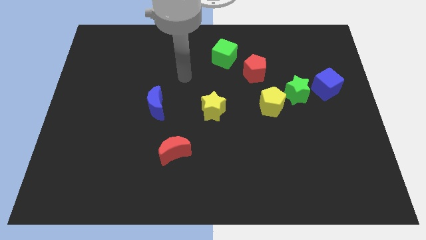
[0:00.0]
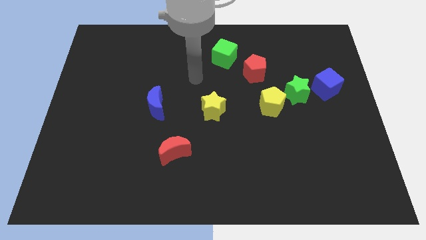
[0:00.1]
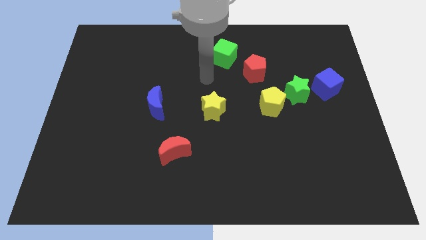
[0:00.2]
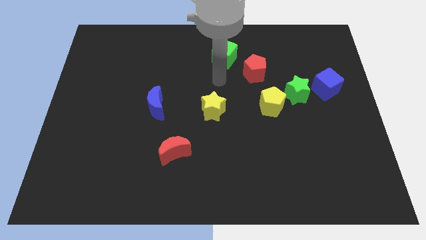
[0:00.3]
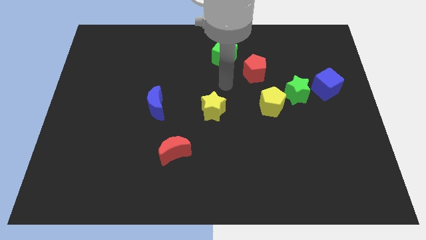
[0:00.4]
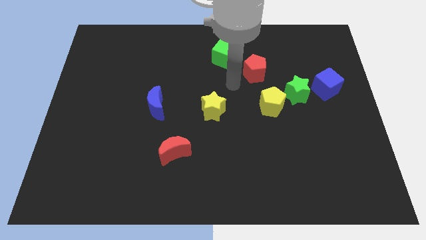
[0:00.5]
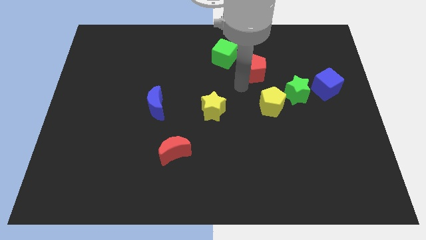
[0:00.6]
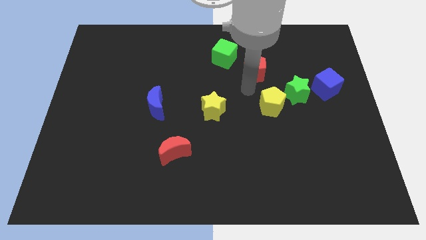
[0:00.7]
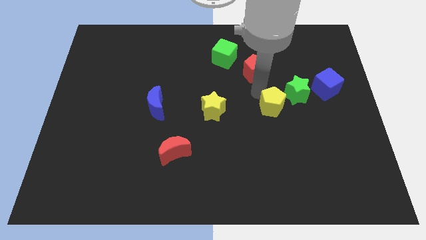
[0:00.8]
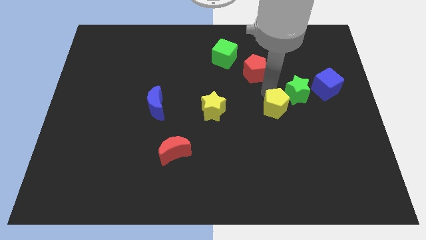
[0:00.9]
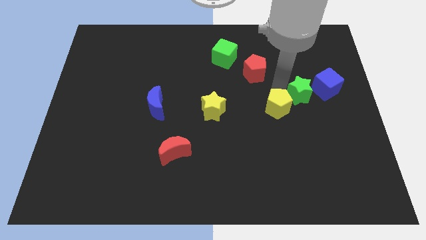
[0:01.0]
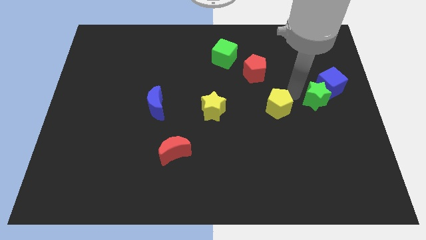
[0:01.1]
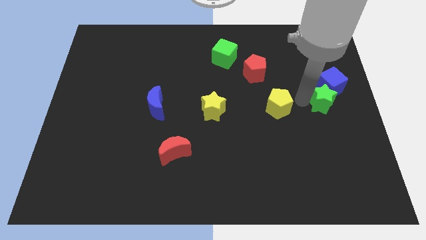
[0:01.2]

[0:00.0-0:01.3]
separate the yellow pentagon from the green star

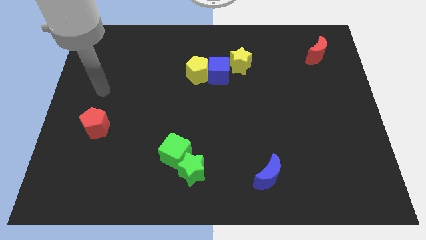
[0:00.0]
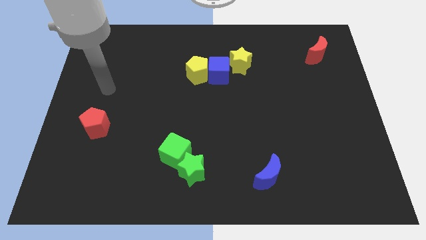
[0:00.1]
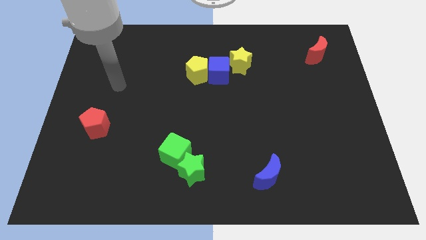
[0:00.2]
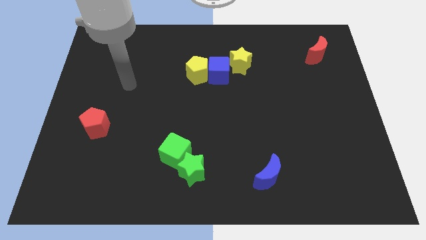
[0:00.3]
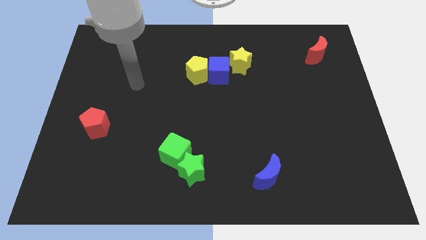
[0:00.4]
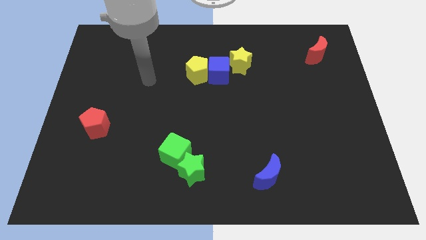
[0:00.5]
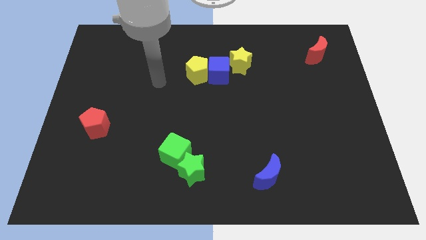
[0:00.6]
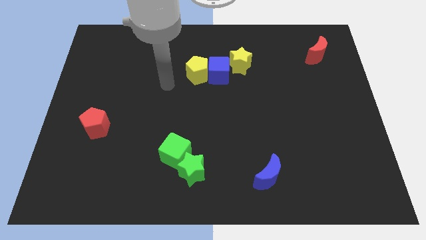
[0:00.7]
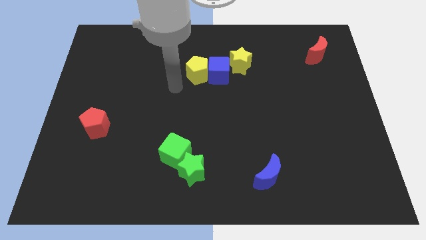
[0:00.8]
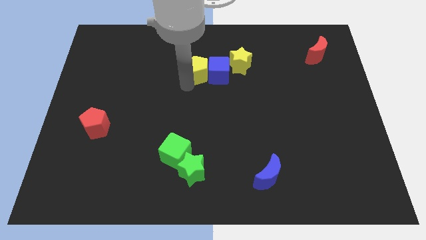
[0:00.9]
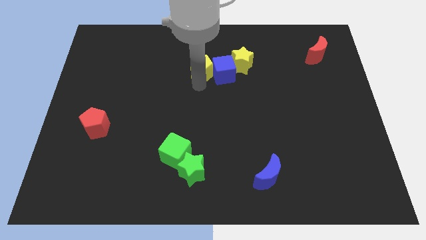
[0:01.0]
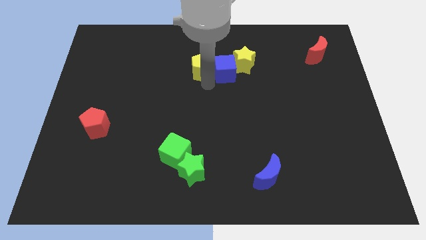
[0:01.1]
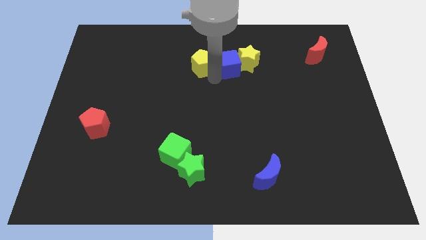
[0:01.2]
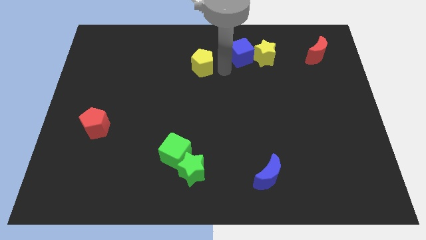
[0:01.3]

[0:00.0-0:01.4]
move the yellow pentagon away from the blue cube

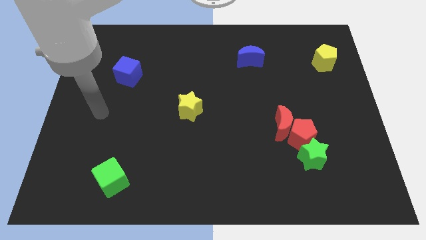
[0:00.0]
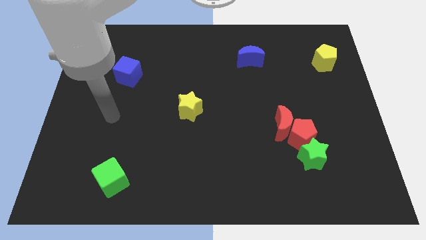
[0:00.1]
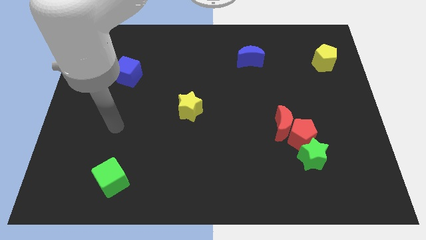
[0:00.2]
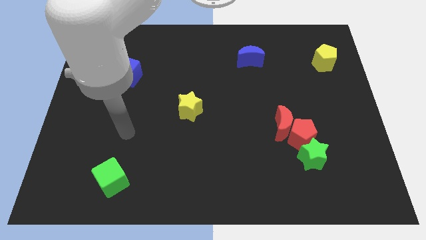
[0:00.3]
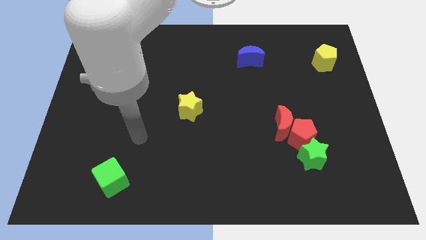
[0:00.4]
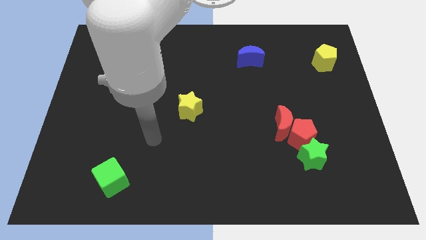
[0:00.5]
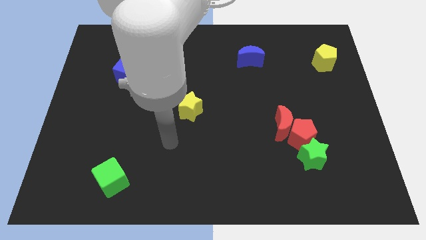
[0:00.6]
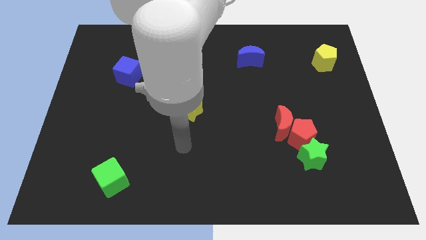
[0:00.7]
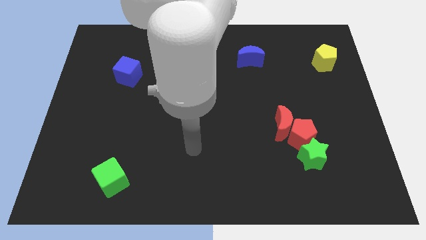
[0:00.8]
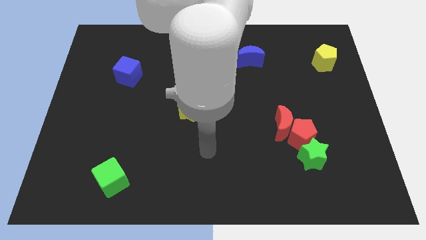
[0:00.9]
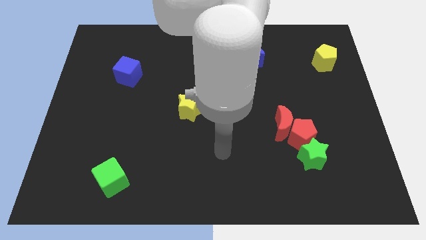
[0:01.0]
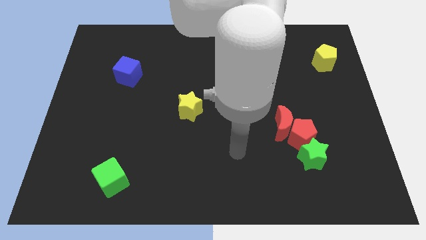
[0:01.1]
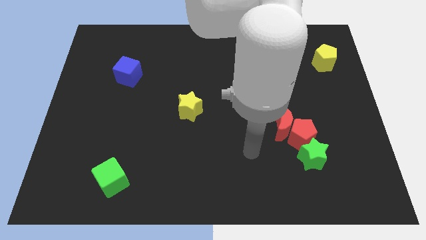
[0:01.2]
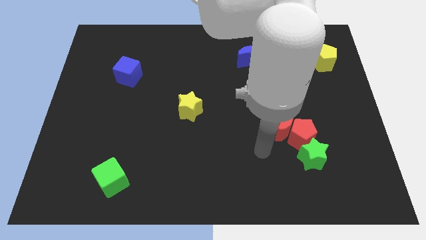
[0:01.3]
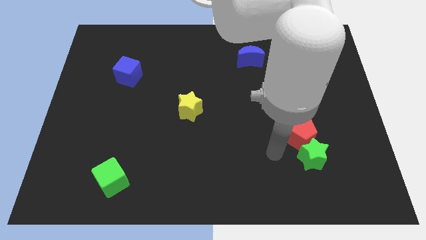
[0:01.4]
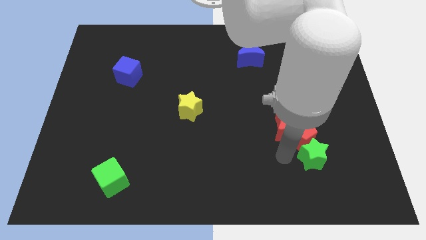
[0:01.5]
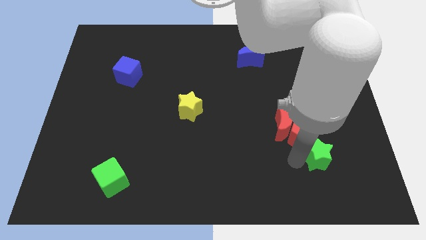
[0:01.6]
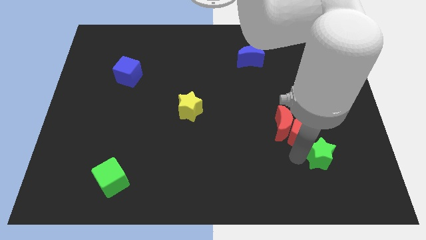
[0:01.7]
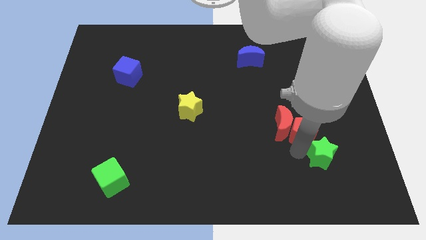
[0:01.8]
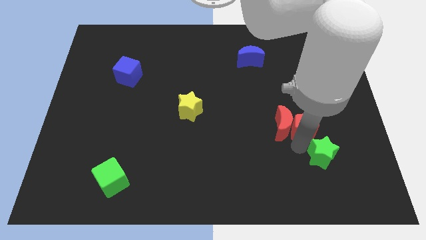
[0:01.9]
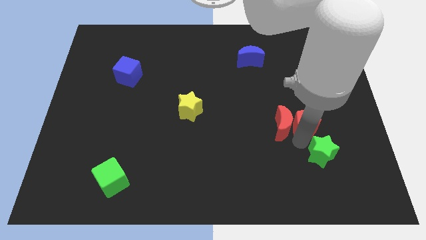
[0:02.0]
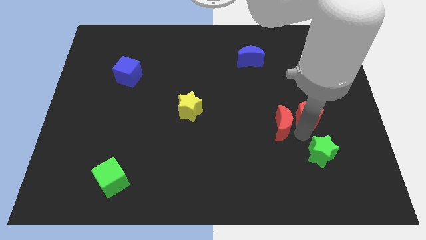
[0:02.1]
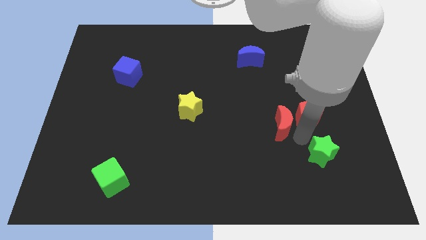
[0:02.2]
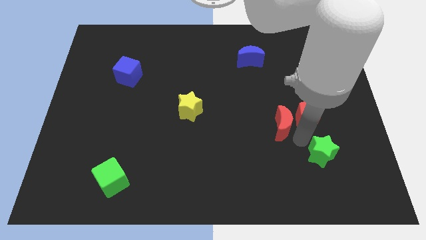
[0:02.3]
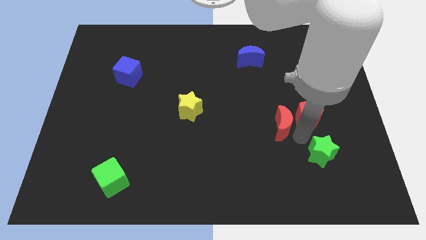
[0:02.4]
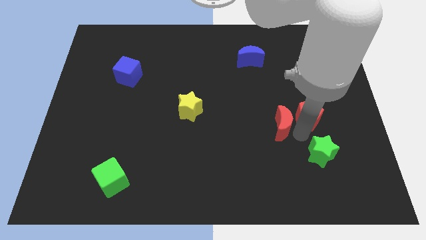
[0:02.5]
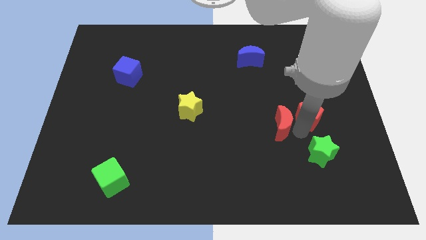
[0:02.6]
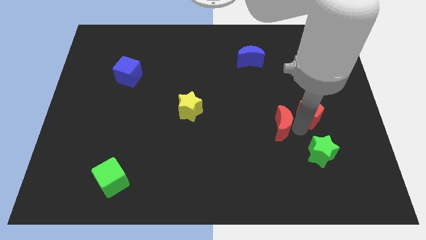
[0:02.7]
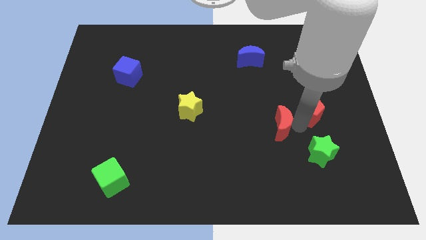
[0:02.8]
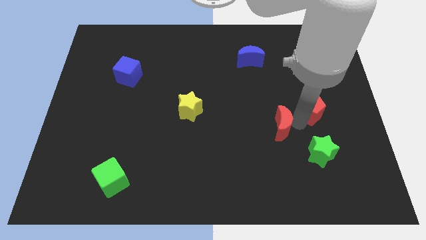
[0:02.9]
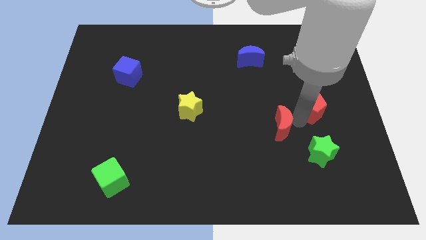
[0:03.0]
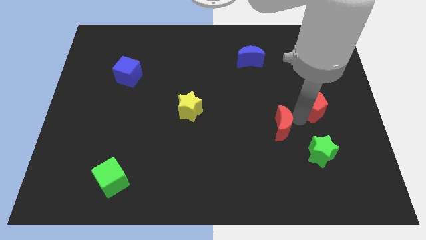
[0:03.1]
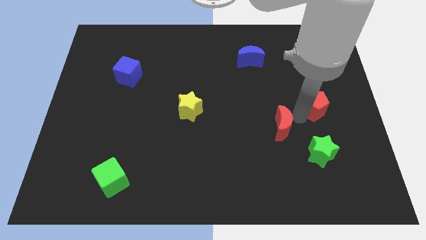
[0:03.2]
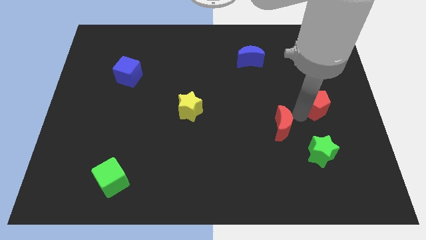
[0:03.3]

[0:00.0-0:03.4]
pull the red pentagon apart from the red moon and green star

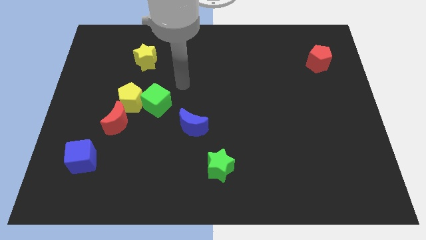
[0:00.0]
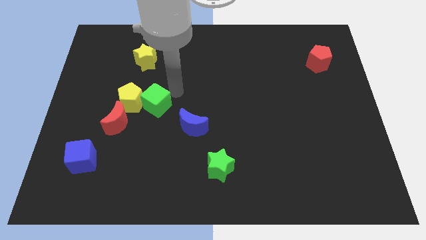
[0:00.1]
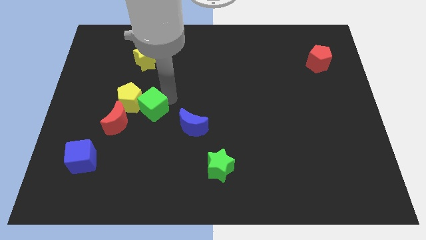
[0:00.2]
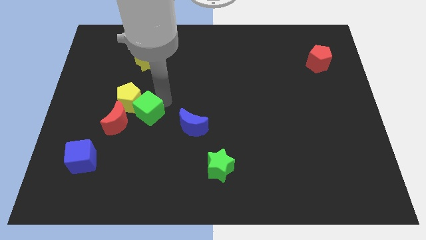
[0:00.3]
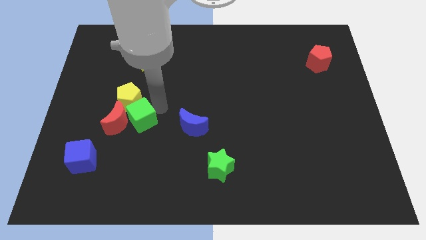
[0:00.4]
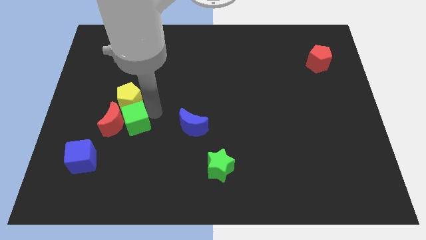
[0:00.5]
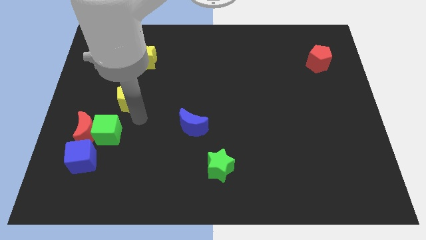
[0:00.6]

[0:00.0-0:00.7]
pull the yellow pentagon apart from the green cube and red moon

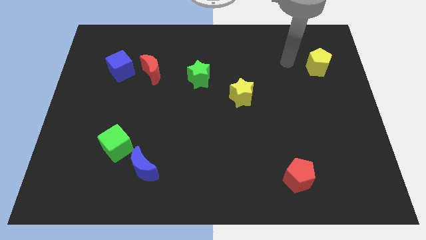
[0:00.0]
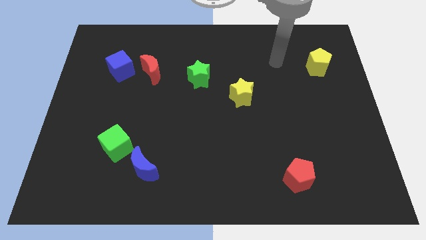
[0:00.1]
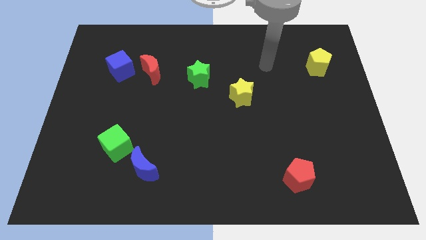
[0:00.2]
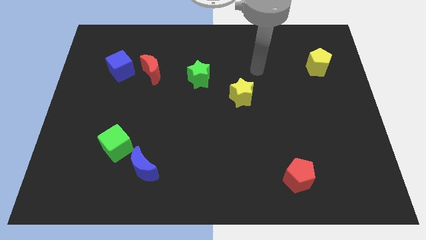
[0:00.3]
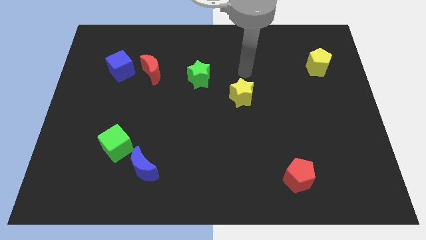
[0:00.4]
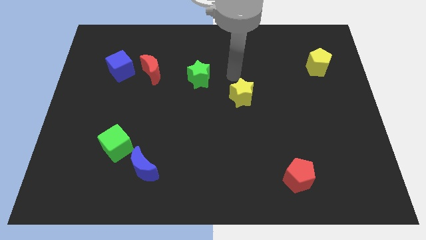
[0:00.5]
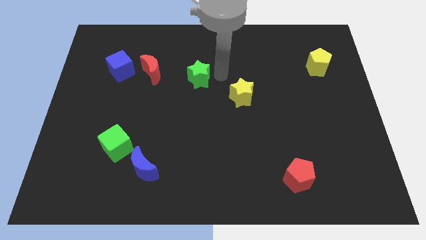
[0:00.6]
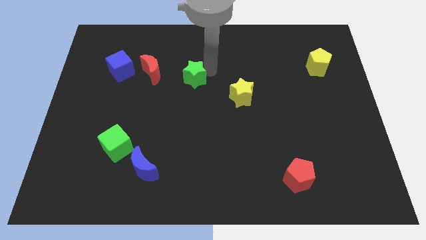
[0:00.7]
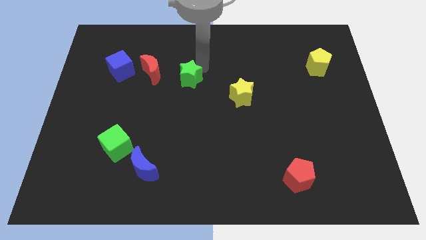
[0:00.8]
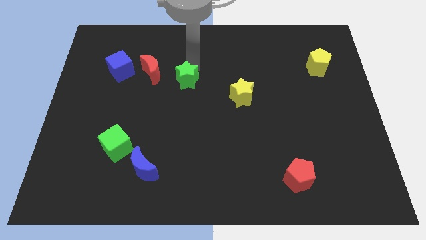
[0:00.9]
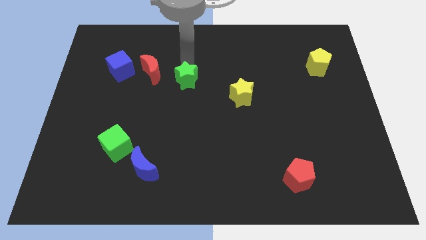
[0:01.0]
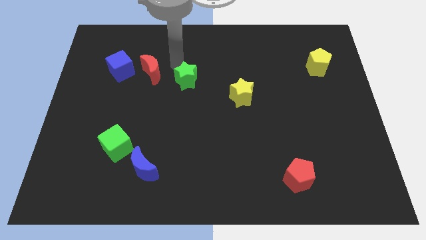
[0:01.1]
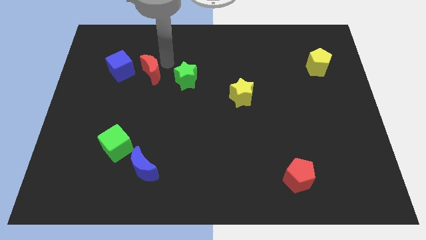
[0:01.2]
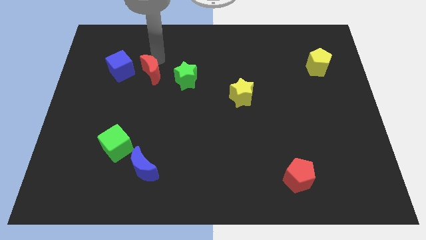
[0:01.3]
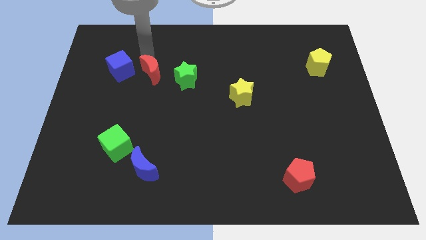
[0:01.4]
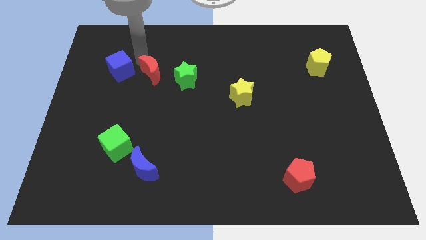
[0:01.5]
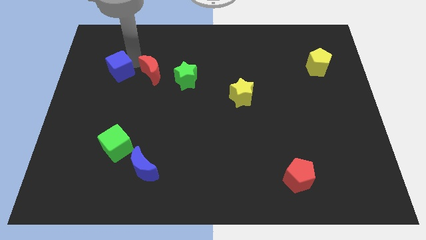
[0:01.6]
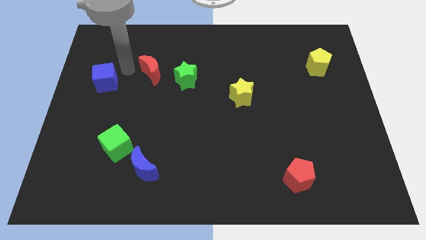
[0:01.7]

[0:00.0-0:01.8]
move the red moon away from the blue cube

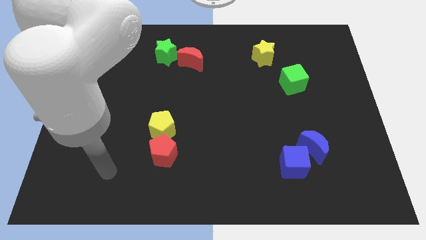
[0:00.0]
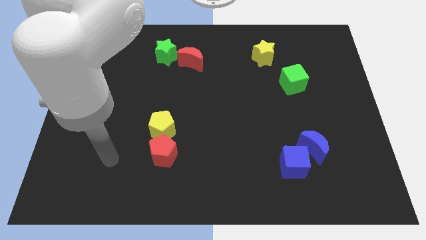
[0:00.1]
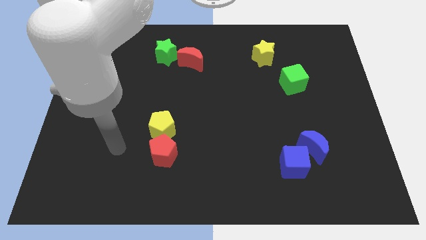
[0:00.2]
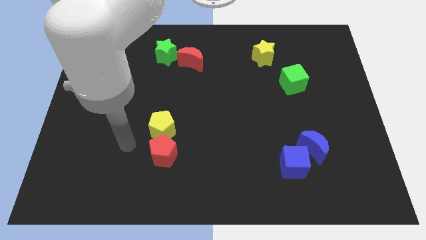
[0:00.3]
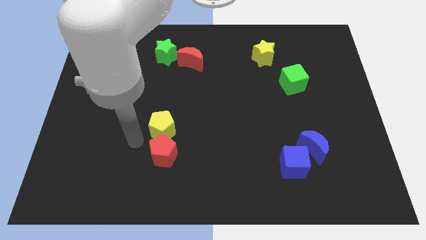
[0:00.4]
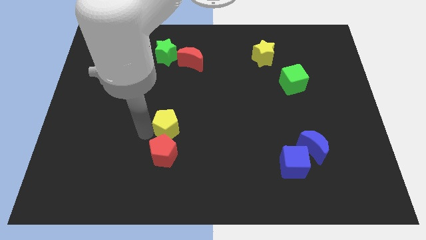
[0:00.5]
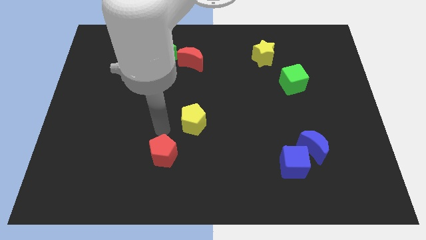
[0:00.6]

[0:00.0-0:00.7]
move the red pentagon away from the yellow pentagon
